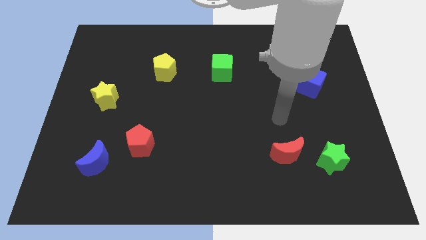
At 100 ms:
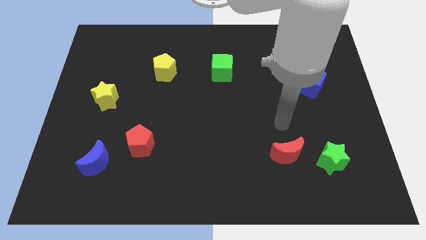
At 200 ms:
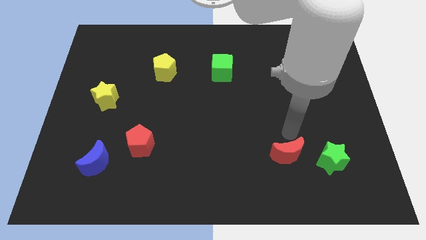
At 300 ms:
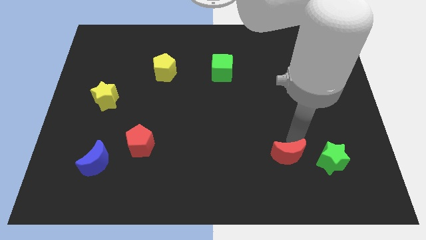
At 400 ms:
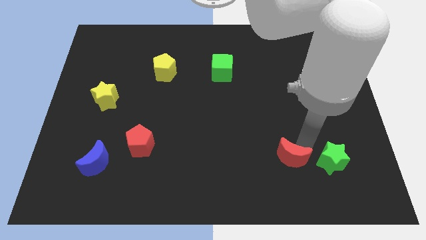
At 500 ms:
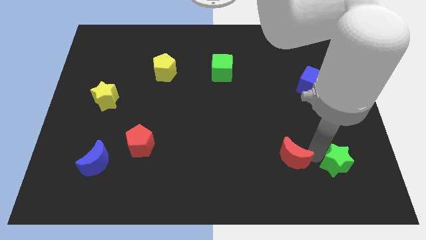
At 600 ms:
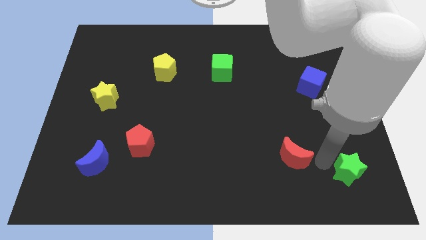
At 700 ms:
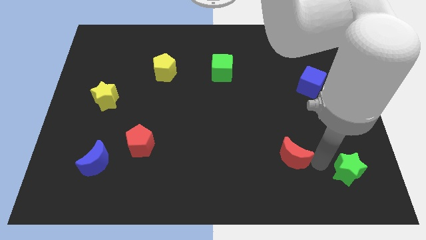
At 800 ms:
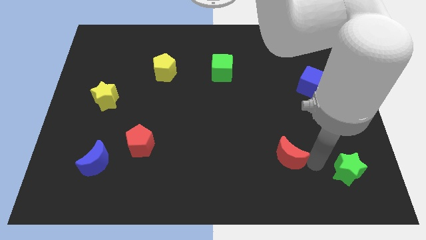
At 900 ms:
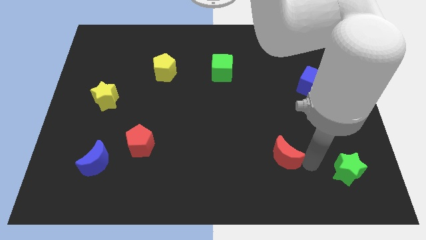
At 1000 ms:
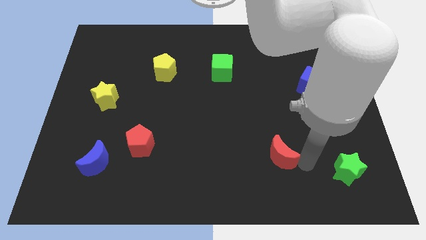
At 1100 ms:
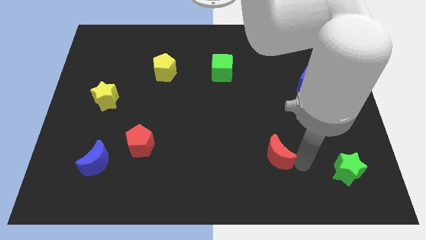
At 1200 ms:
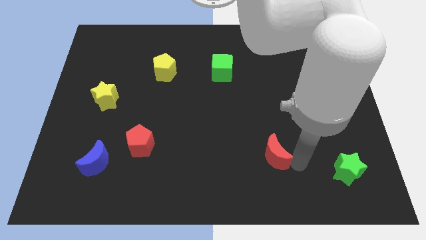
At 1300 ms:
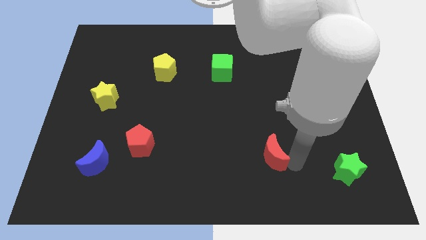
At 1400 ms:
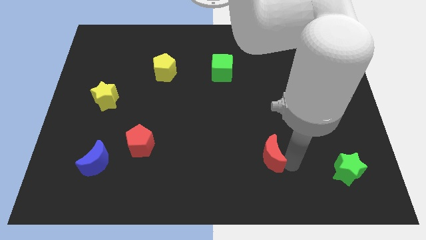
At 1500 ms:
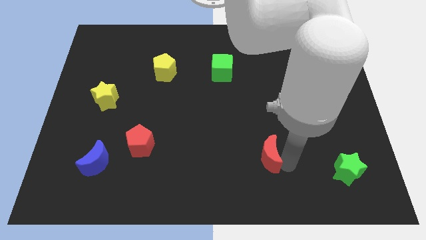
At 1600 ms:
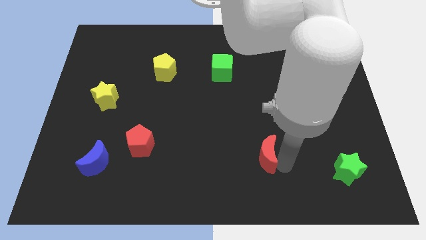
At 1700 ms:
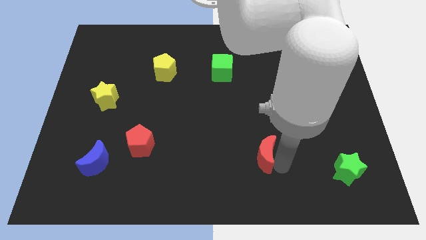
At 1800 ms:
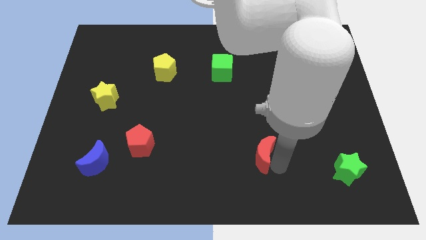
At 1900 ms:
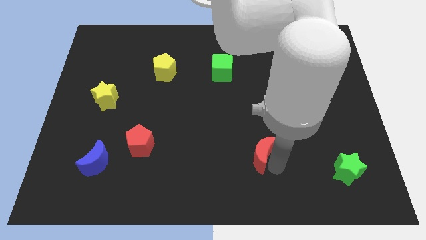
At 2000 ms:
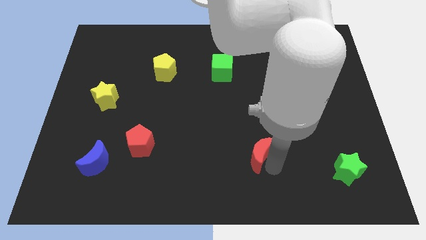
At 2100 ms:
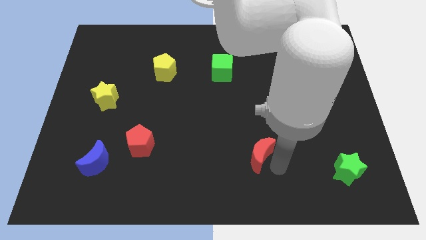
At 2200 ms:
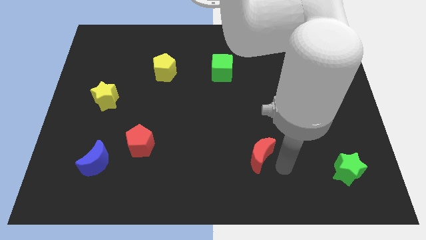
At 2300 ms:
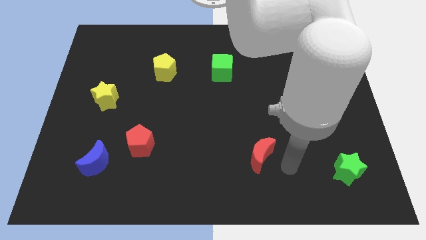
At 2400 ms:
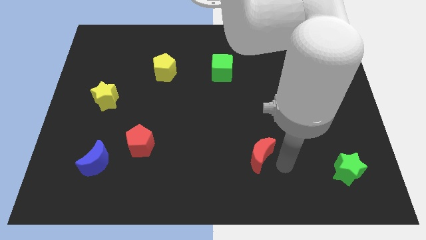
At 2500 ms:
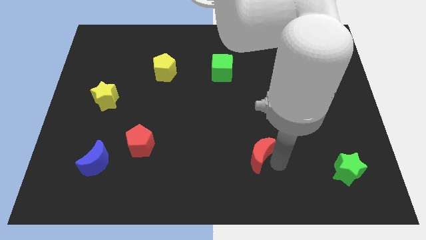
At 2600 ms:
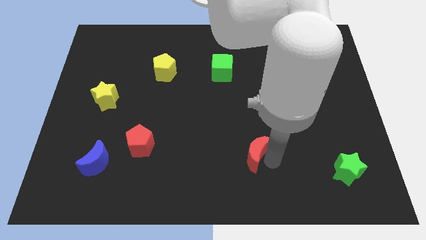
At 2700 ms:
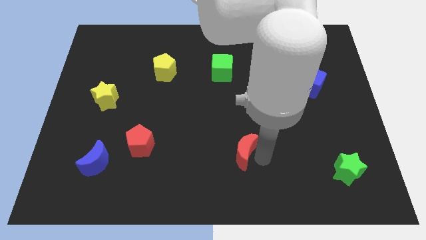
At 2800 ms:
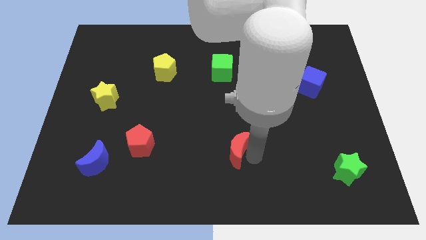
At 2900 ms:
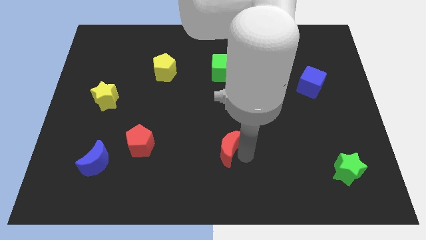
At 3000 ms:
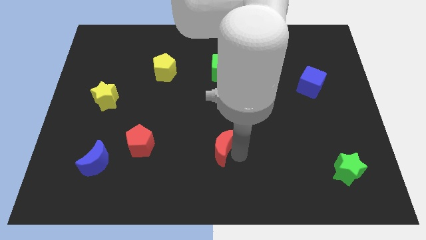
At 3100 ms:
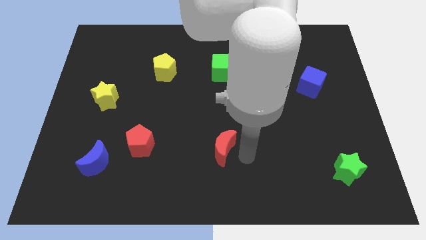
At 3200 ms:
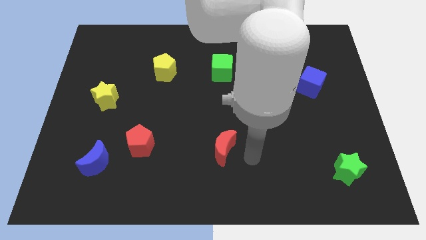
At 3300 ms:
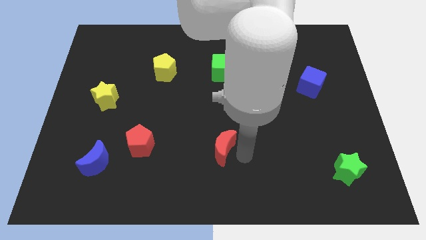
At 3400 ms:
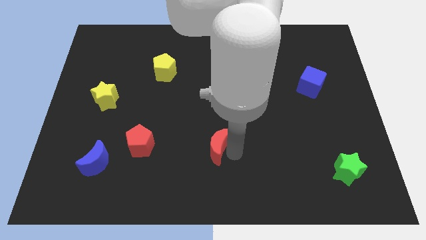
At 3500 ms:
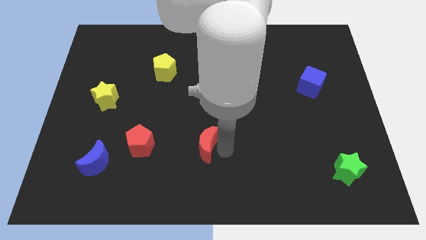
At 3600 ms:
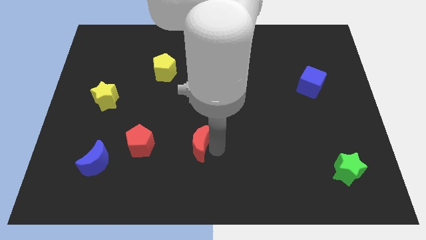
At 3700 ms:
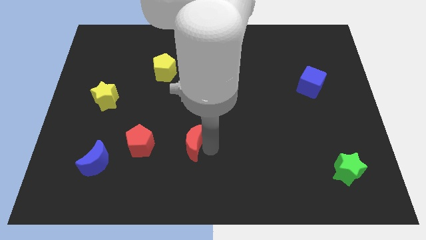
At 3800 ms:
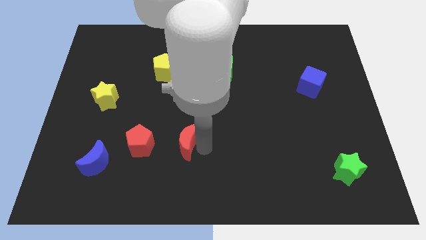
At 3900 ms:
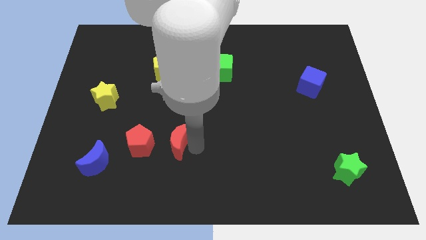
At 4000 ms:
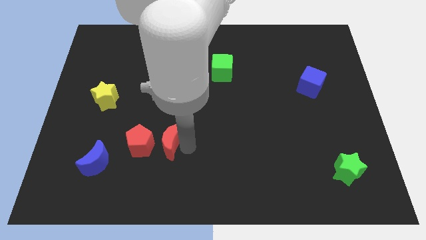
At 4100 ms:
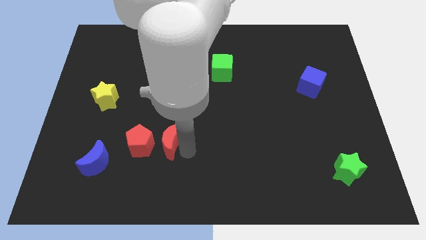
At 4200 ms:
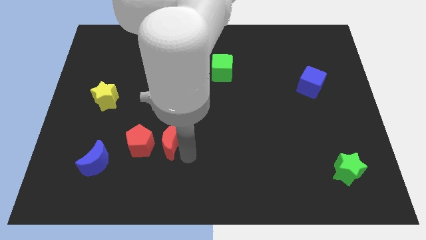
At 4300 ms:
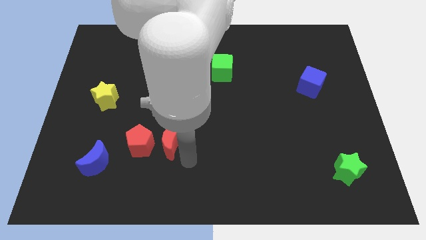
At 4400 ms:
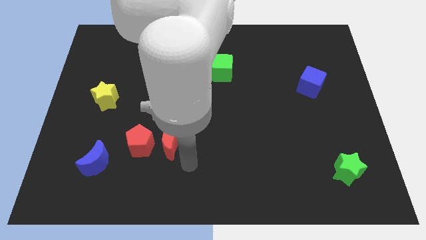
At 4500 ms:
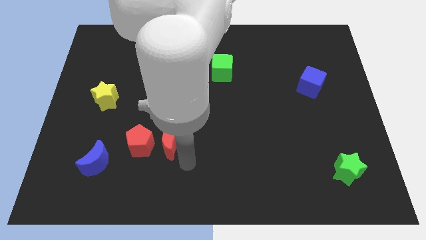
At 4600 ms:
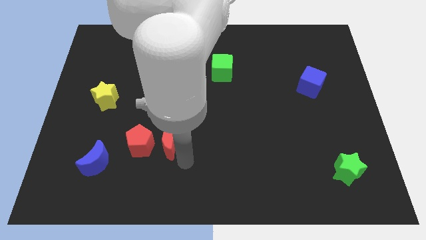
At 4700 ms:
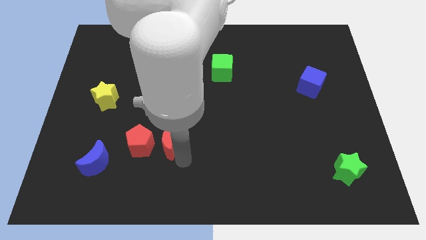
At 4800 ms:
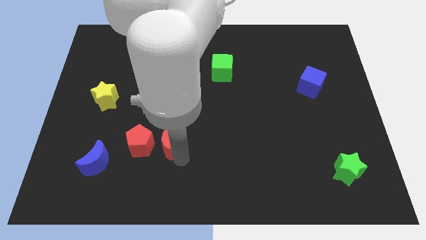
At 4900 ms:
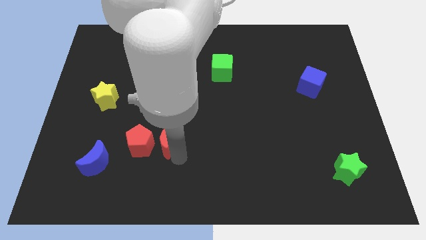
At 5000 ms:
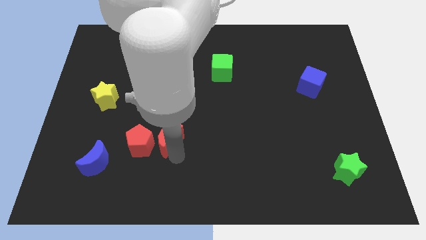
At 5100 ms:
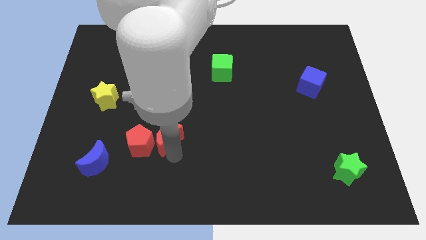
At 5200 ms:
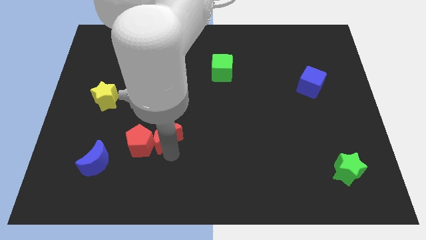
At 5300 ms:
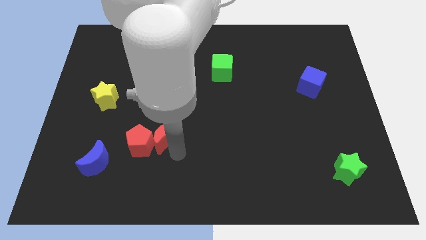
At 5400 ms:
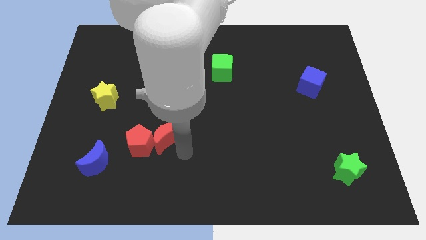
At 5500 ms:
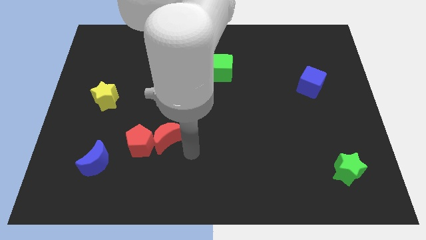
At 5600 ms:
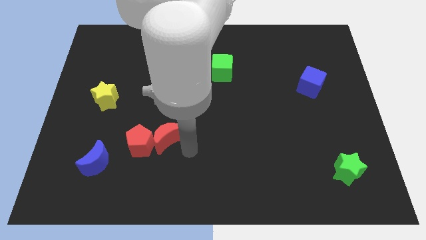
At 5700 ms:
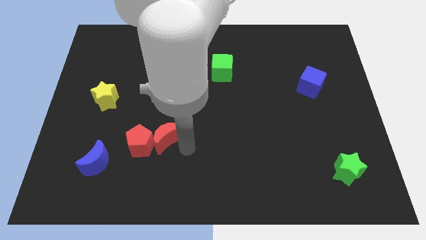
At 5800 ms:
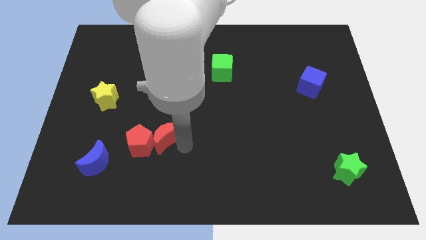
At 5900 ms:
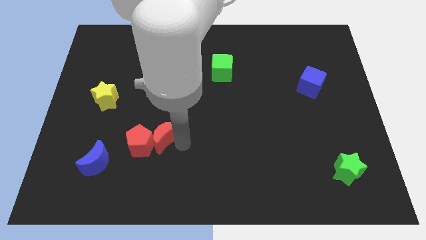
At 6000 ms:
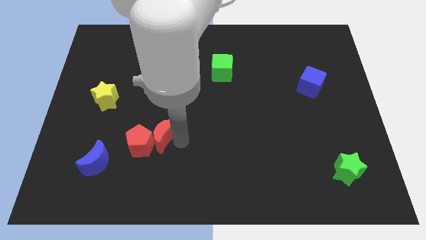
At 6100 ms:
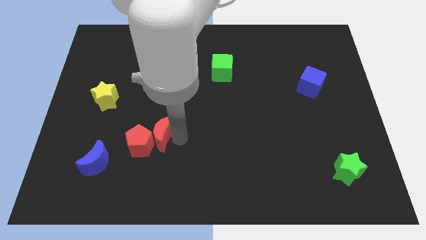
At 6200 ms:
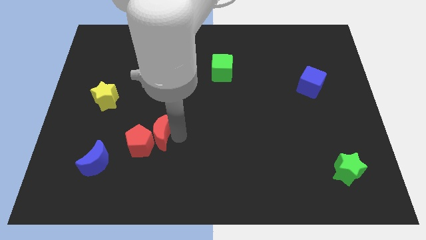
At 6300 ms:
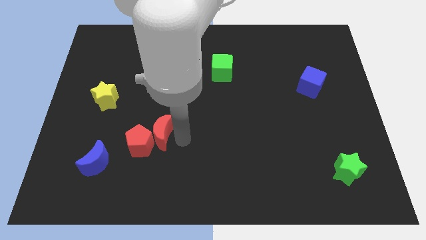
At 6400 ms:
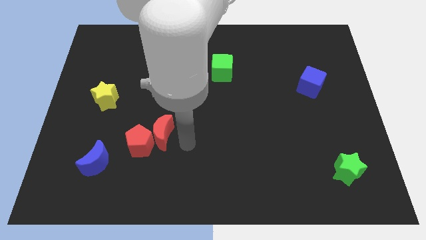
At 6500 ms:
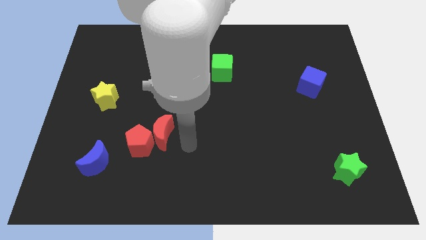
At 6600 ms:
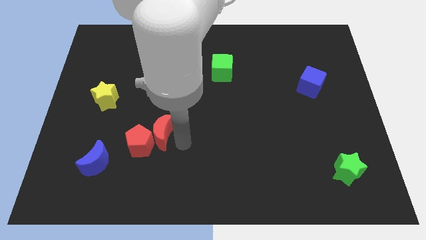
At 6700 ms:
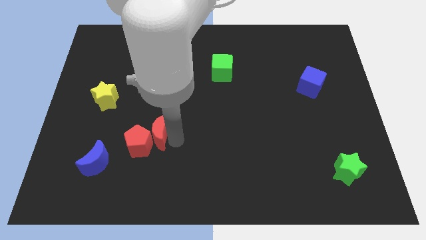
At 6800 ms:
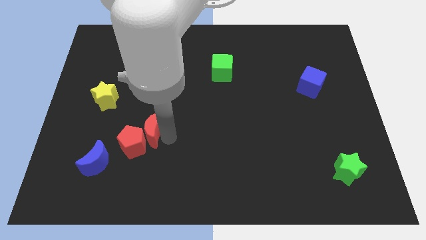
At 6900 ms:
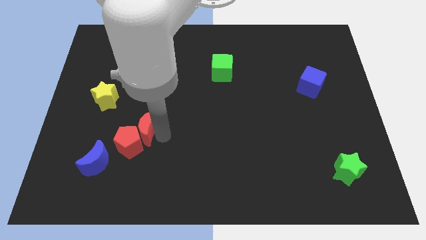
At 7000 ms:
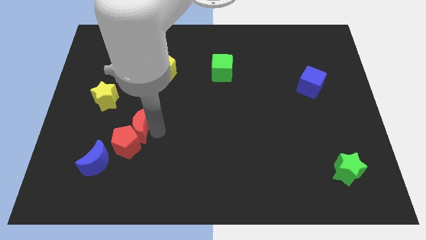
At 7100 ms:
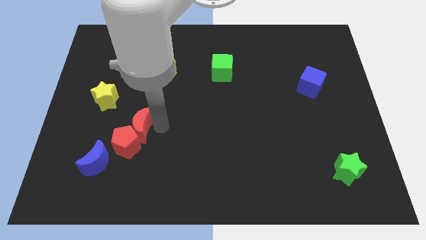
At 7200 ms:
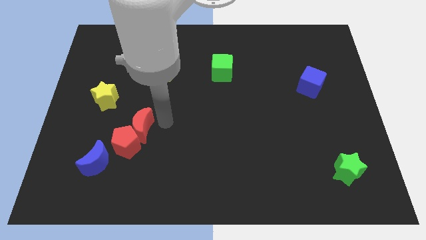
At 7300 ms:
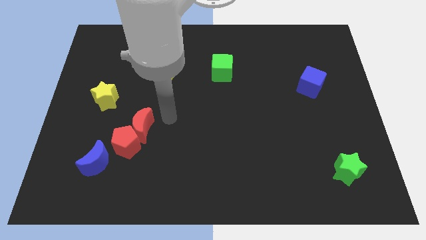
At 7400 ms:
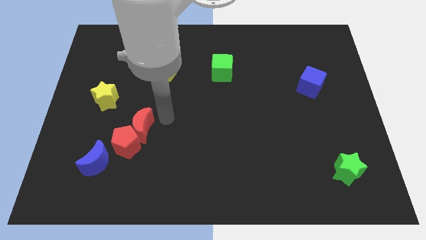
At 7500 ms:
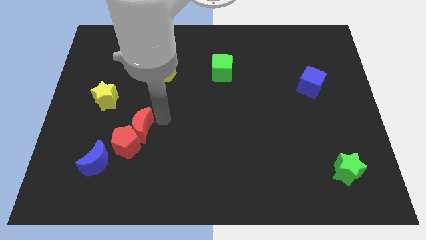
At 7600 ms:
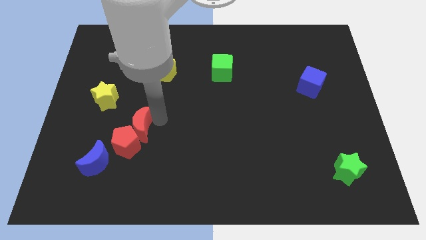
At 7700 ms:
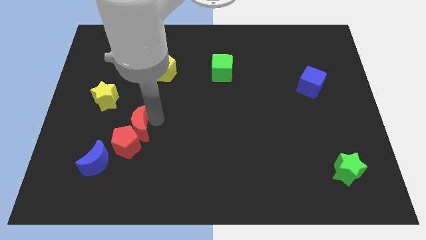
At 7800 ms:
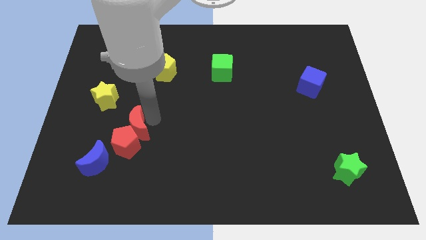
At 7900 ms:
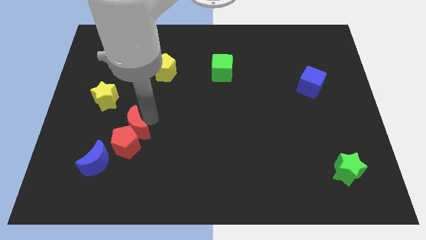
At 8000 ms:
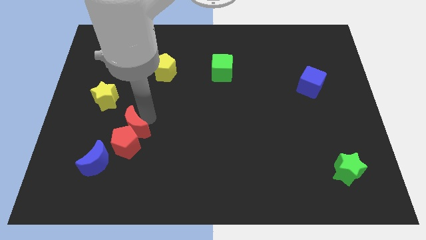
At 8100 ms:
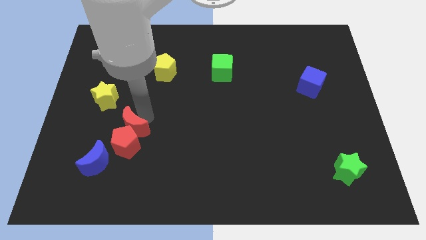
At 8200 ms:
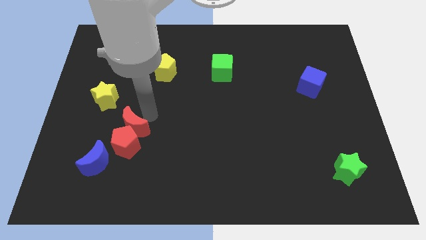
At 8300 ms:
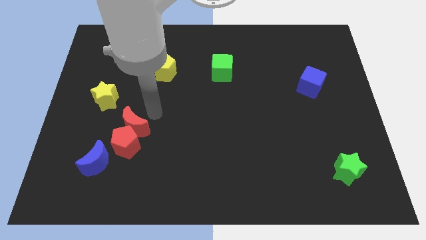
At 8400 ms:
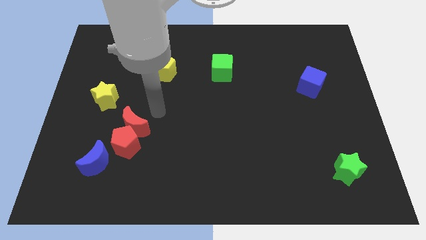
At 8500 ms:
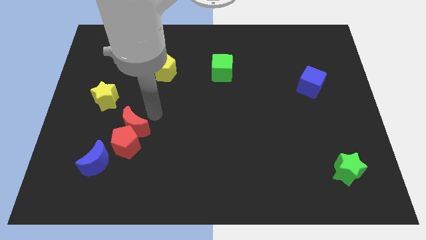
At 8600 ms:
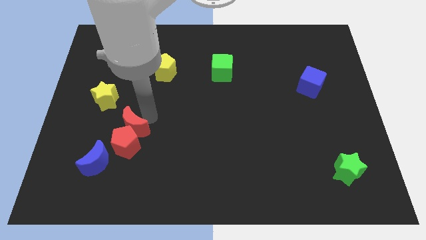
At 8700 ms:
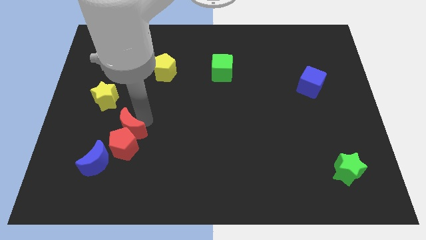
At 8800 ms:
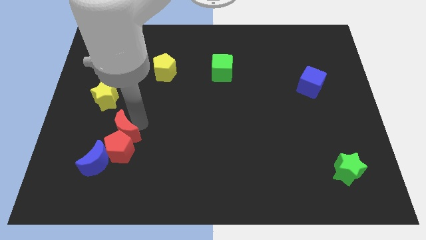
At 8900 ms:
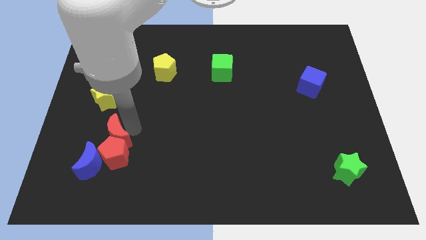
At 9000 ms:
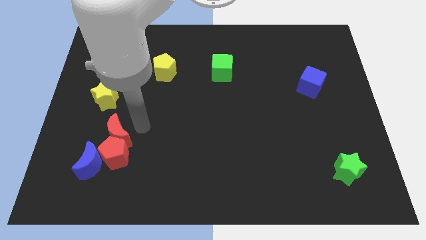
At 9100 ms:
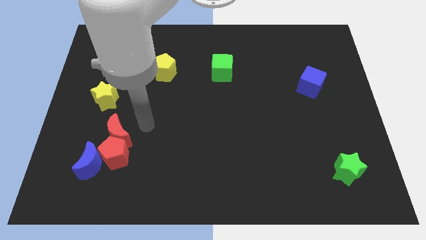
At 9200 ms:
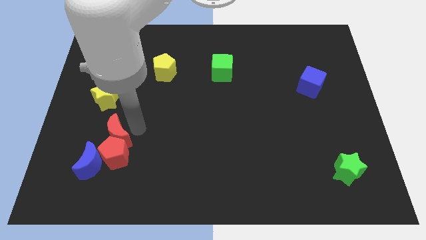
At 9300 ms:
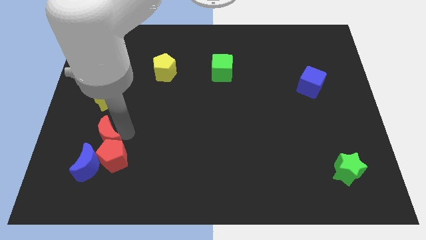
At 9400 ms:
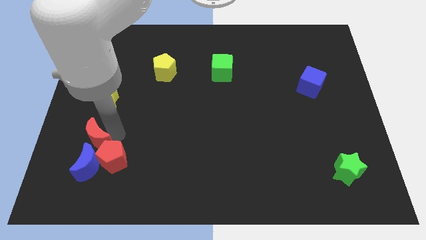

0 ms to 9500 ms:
put the red moon to the left of the red pentagon
